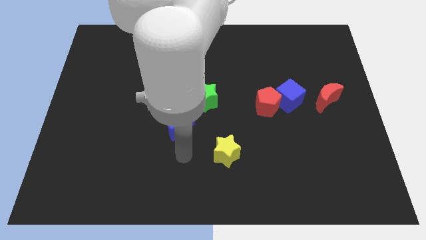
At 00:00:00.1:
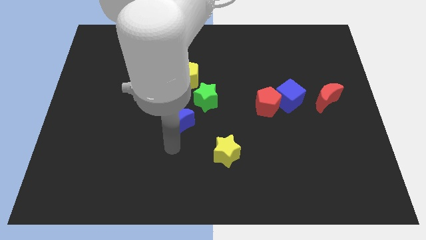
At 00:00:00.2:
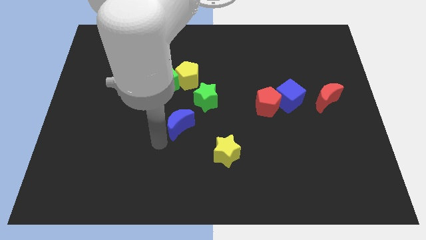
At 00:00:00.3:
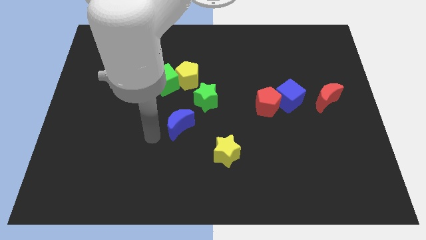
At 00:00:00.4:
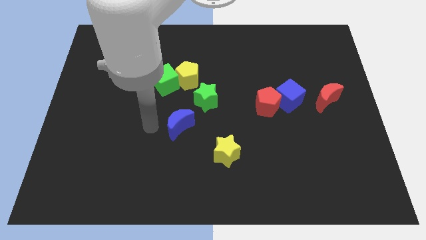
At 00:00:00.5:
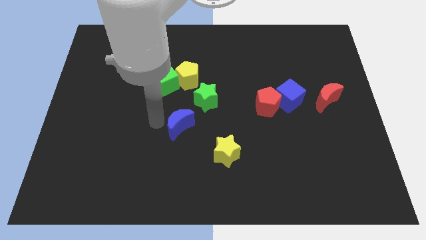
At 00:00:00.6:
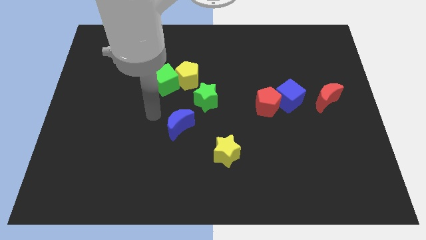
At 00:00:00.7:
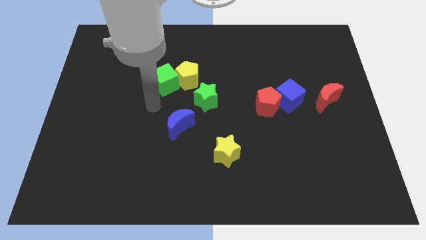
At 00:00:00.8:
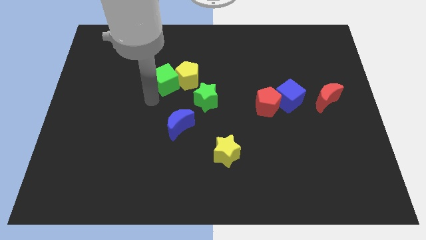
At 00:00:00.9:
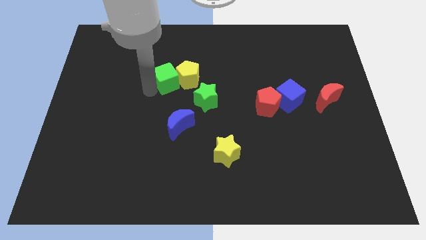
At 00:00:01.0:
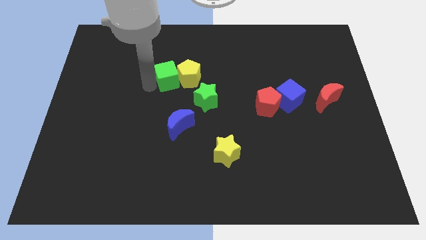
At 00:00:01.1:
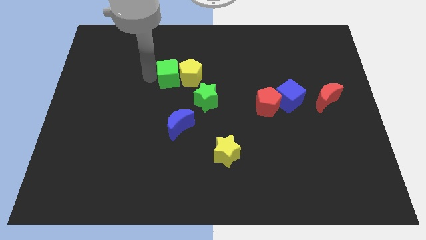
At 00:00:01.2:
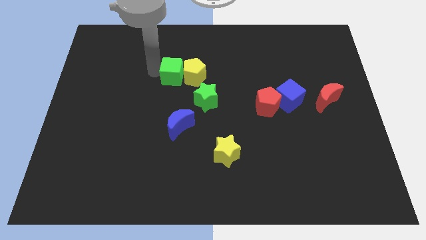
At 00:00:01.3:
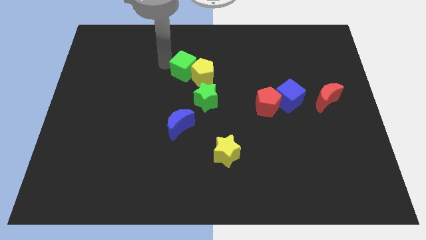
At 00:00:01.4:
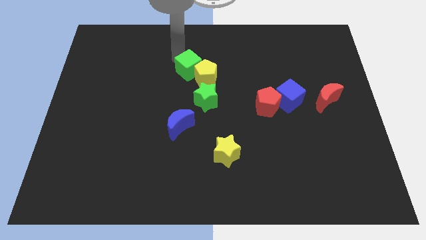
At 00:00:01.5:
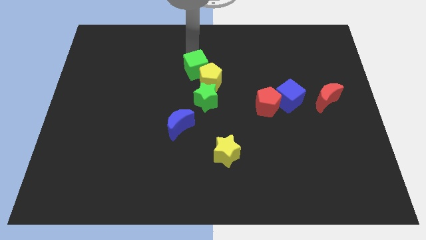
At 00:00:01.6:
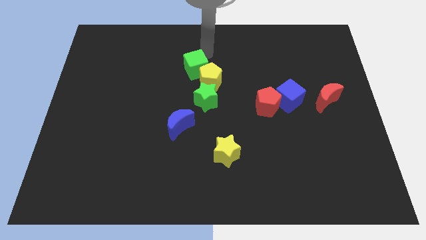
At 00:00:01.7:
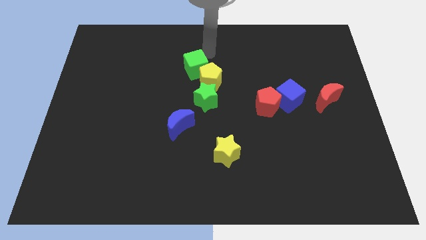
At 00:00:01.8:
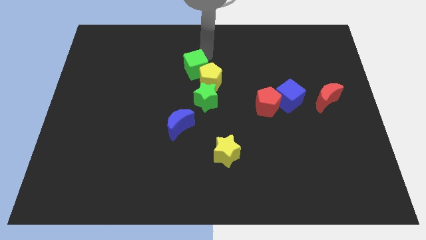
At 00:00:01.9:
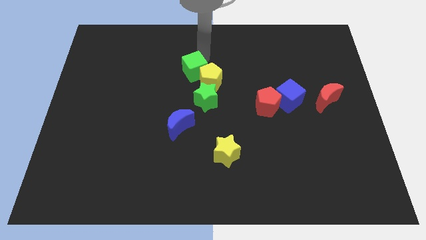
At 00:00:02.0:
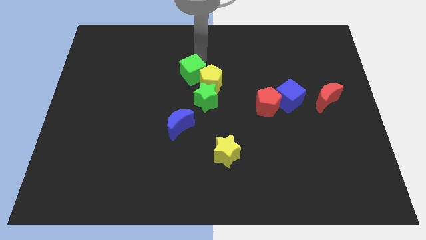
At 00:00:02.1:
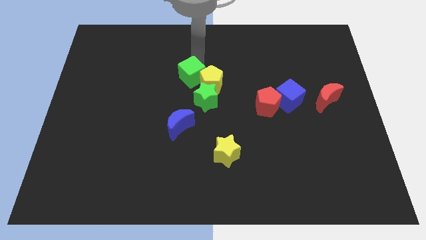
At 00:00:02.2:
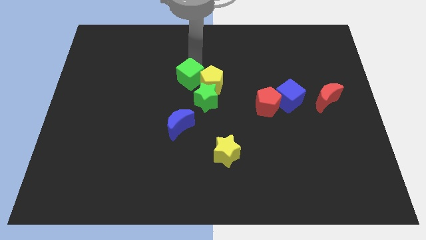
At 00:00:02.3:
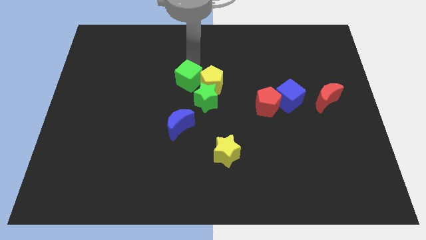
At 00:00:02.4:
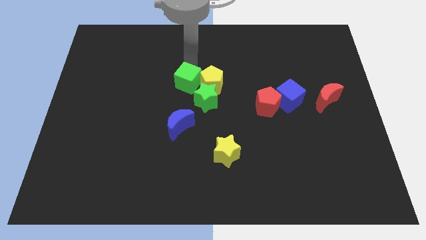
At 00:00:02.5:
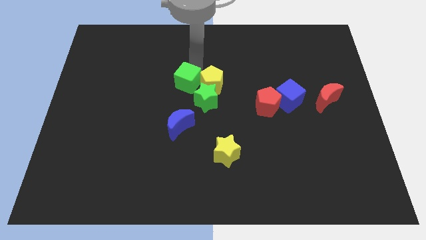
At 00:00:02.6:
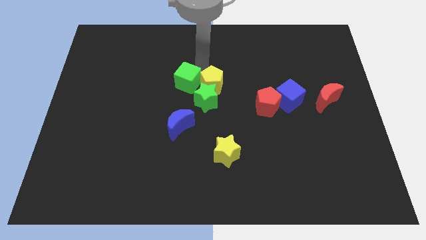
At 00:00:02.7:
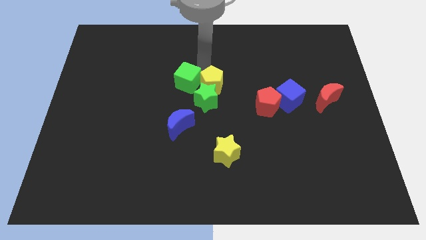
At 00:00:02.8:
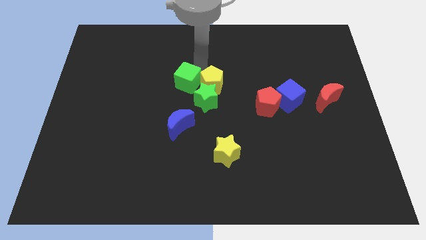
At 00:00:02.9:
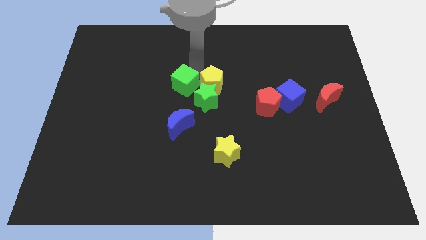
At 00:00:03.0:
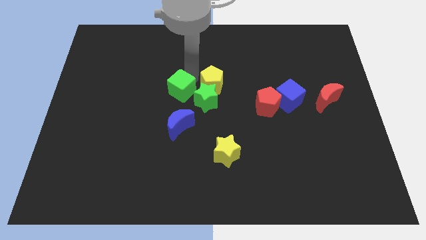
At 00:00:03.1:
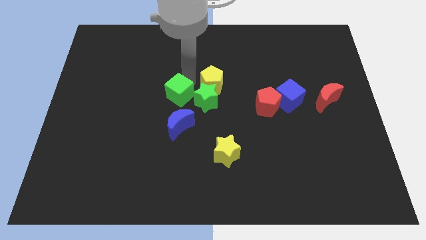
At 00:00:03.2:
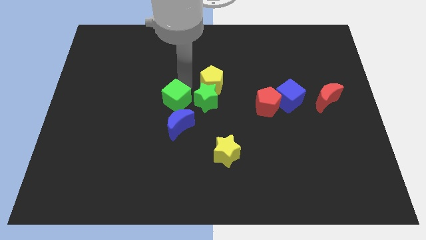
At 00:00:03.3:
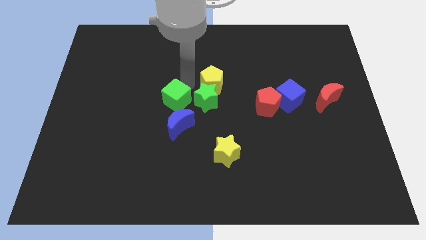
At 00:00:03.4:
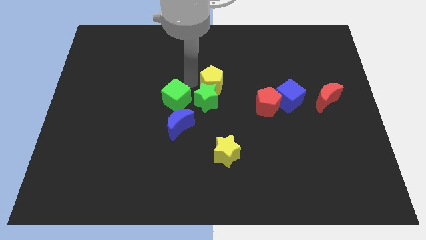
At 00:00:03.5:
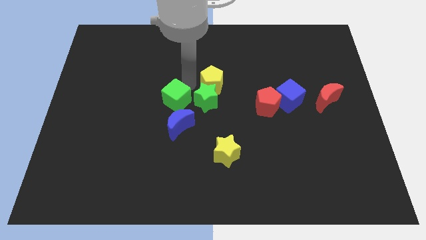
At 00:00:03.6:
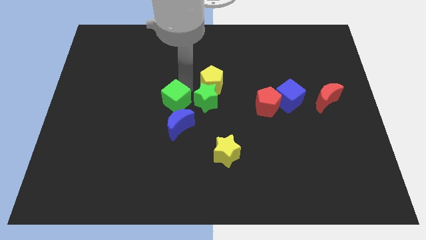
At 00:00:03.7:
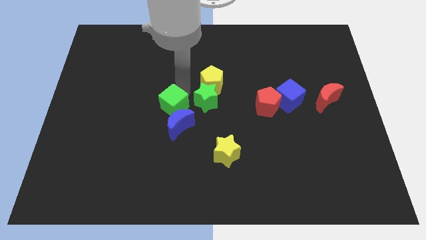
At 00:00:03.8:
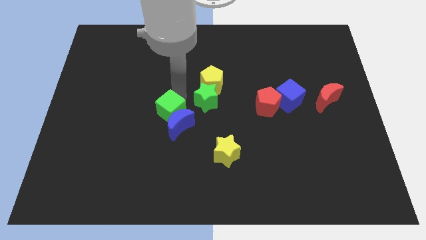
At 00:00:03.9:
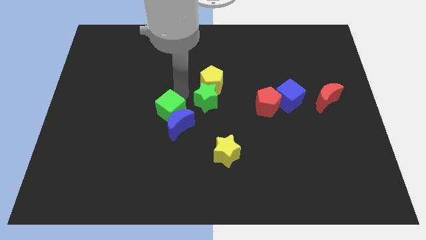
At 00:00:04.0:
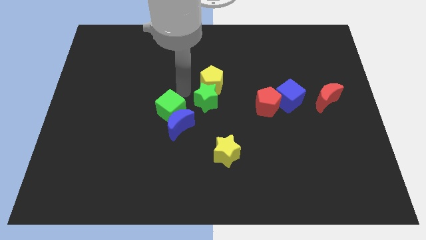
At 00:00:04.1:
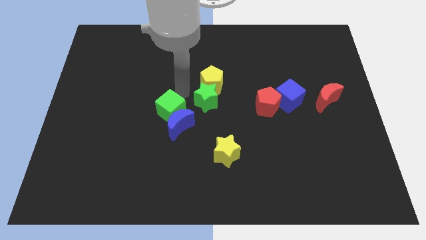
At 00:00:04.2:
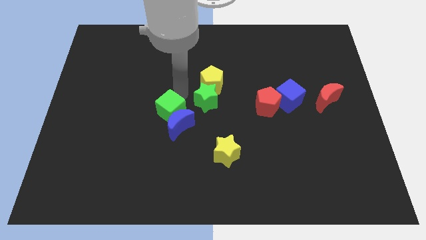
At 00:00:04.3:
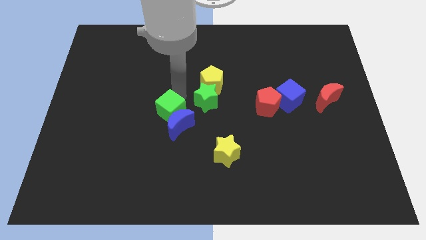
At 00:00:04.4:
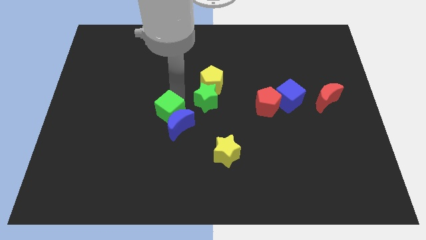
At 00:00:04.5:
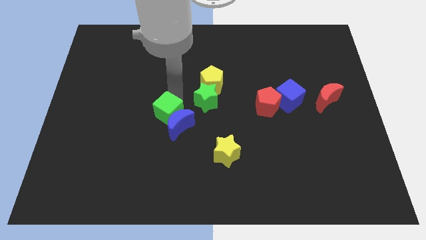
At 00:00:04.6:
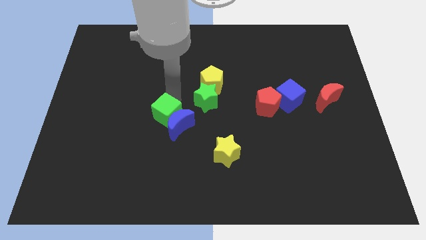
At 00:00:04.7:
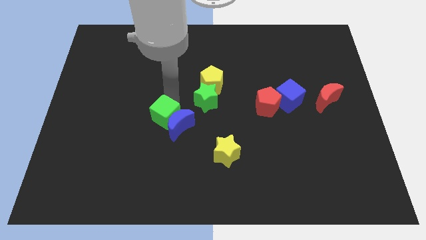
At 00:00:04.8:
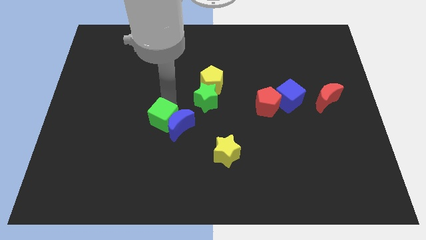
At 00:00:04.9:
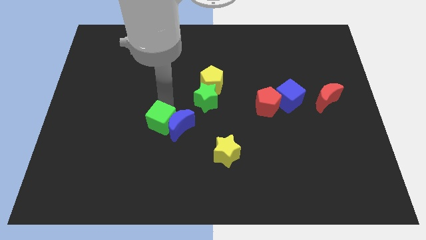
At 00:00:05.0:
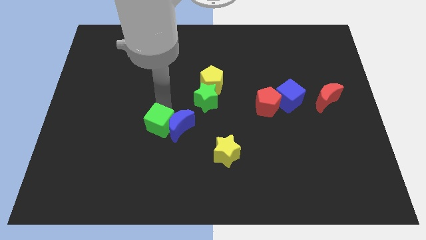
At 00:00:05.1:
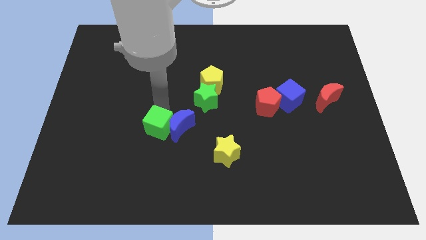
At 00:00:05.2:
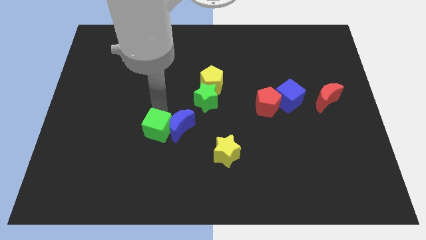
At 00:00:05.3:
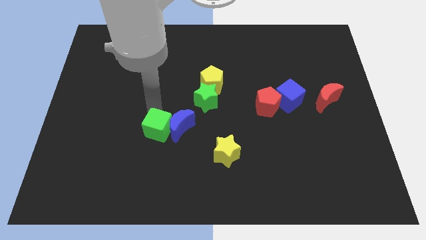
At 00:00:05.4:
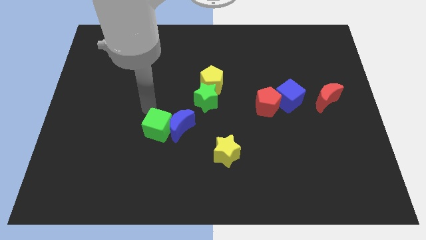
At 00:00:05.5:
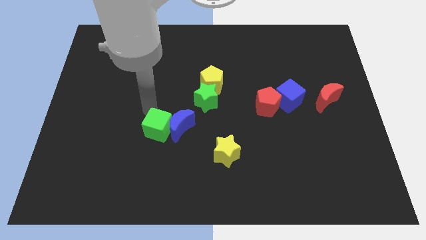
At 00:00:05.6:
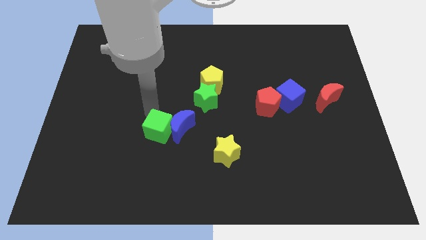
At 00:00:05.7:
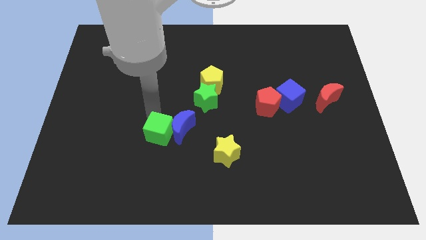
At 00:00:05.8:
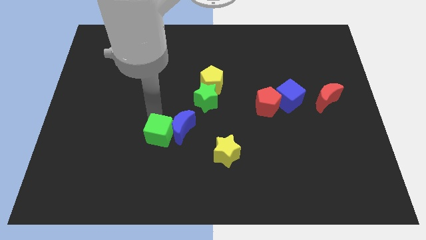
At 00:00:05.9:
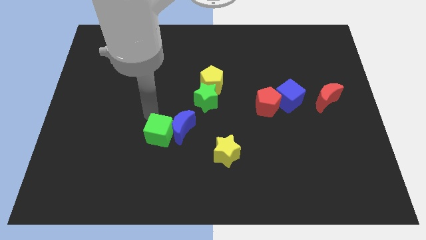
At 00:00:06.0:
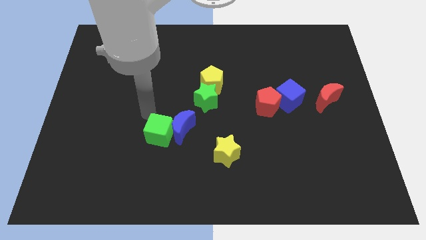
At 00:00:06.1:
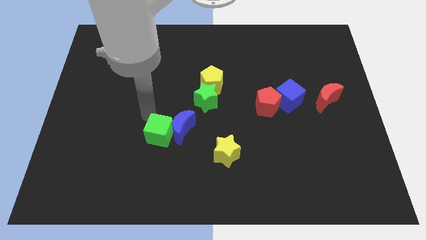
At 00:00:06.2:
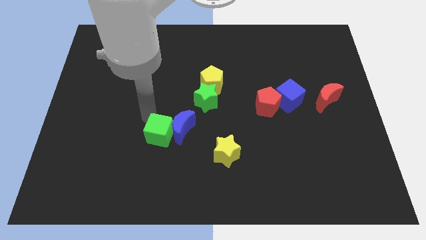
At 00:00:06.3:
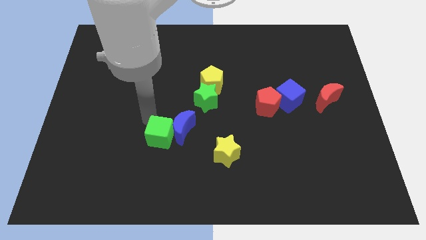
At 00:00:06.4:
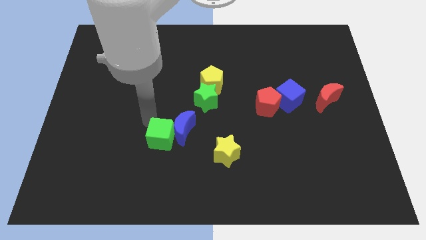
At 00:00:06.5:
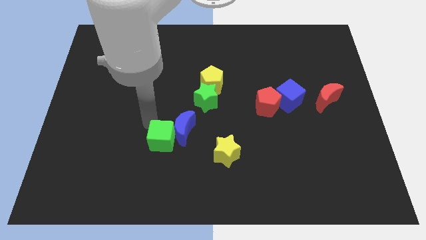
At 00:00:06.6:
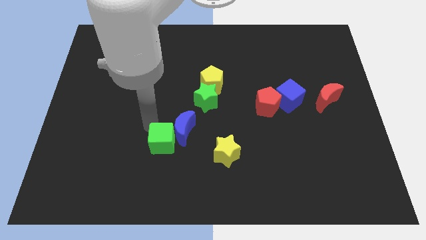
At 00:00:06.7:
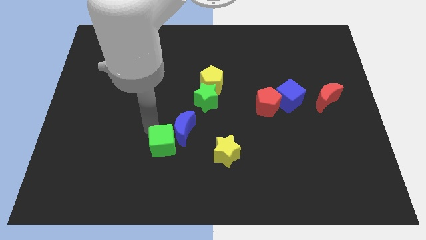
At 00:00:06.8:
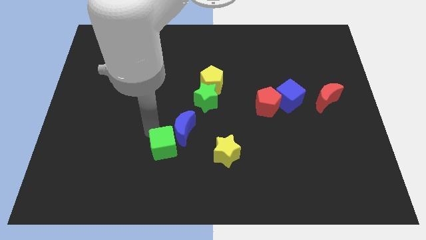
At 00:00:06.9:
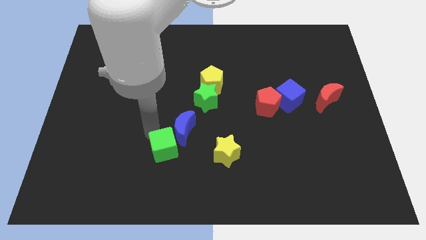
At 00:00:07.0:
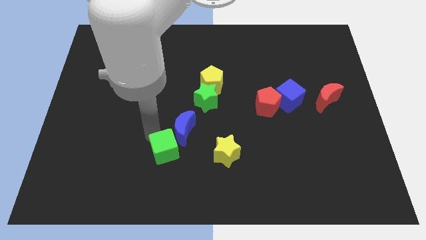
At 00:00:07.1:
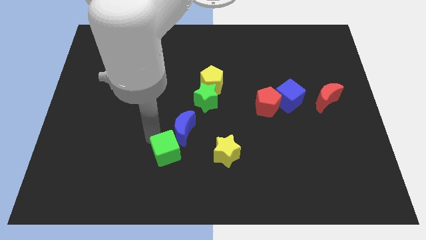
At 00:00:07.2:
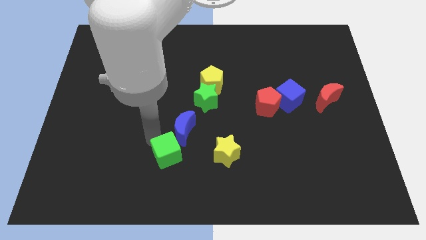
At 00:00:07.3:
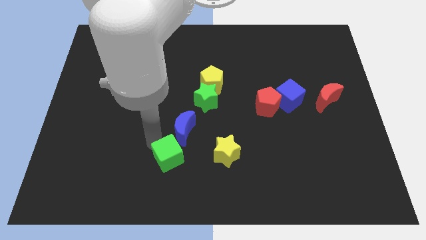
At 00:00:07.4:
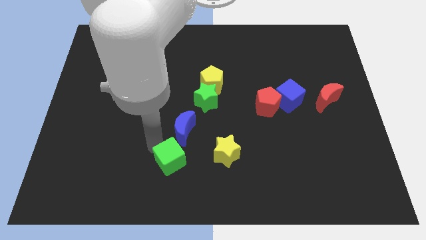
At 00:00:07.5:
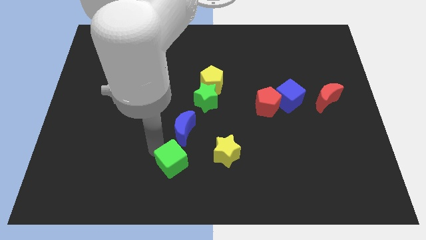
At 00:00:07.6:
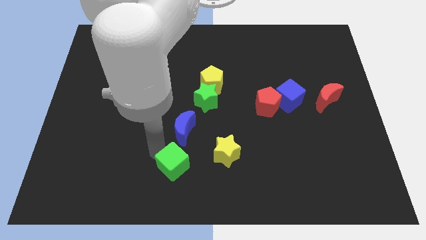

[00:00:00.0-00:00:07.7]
slide the green cube to the bottom
